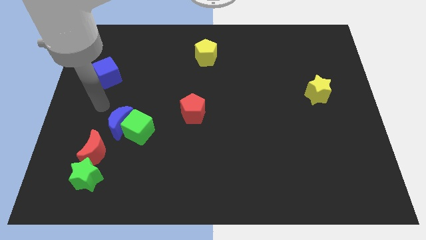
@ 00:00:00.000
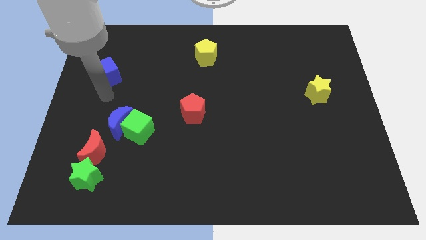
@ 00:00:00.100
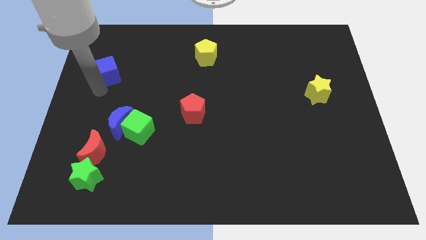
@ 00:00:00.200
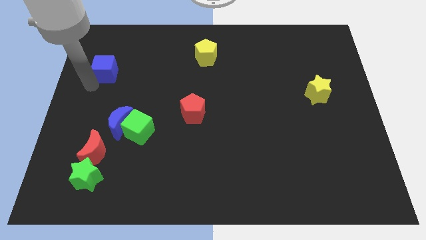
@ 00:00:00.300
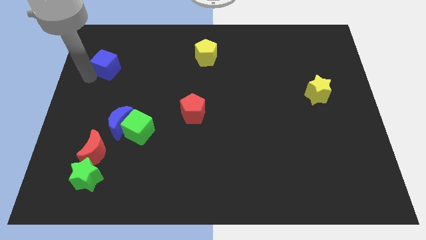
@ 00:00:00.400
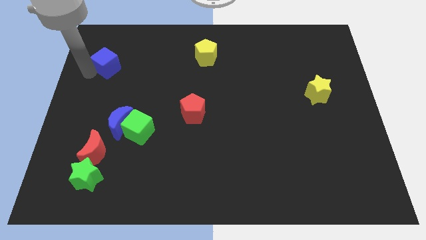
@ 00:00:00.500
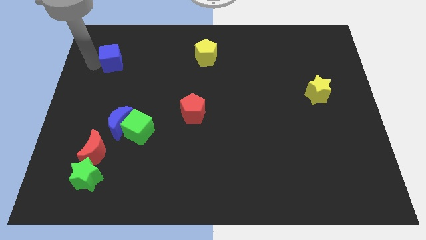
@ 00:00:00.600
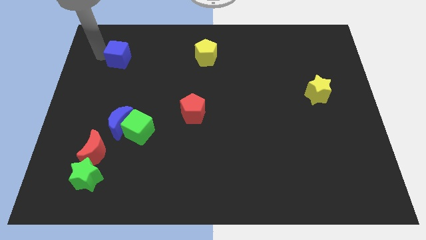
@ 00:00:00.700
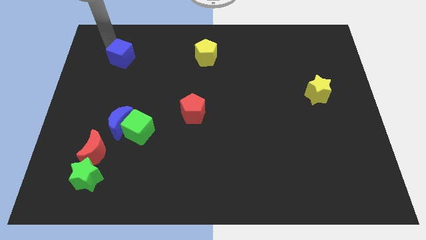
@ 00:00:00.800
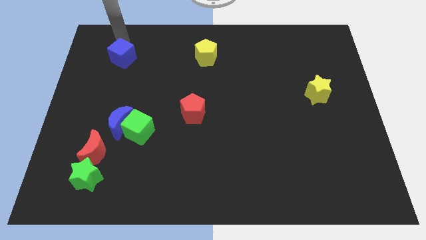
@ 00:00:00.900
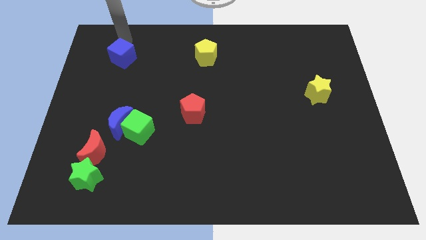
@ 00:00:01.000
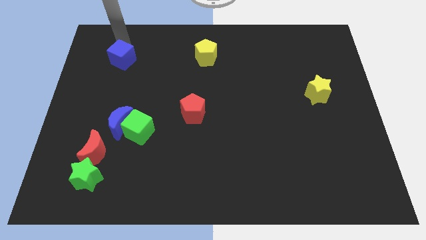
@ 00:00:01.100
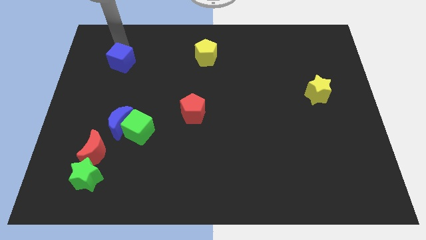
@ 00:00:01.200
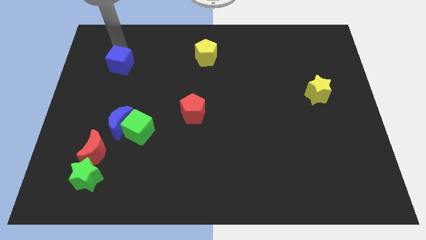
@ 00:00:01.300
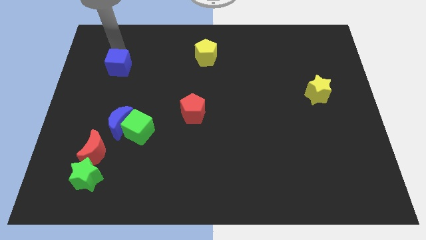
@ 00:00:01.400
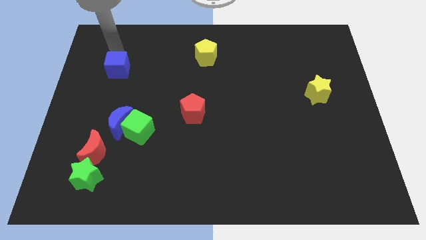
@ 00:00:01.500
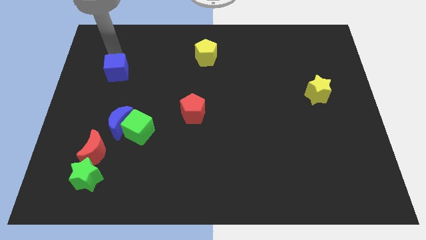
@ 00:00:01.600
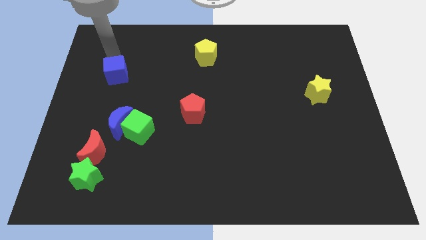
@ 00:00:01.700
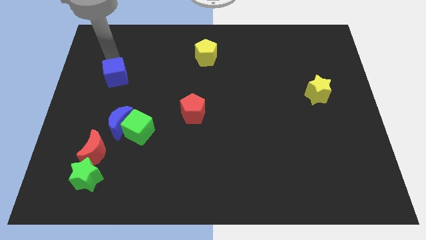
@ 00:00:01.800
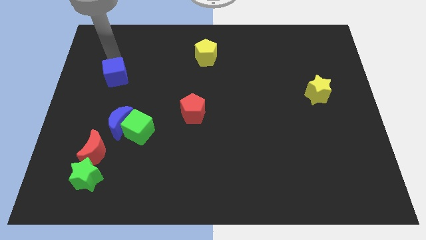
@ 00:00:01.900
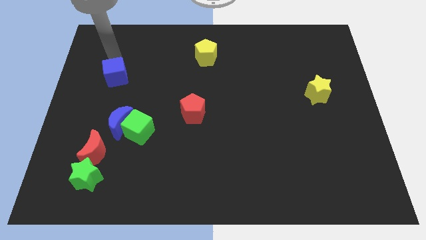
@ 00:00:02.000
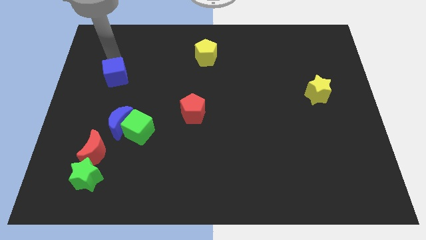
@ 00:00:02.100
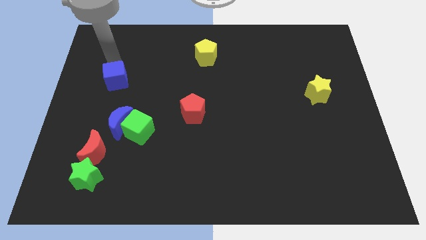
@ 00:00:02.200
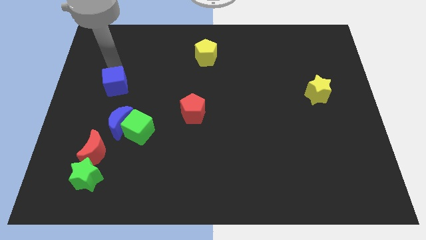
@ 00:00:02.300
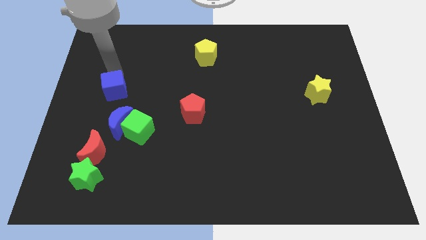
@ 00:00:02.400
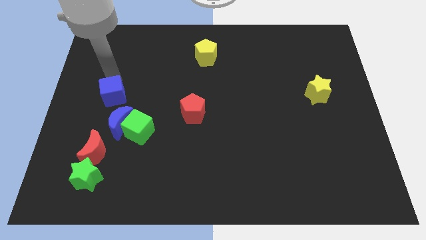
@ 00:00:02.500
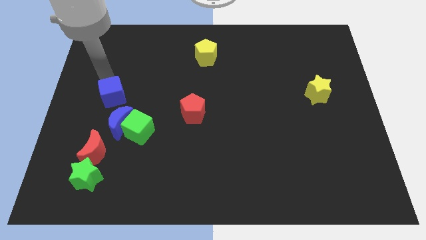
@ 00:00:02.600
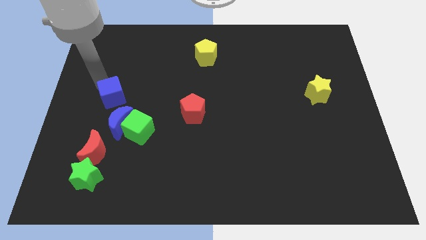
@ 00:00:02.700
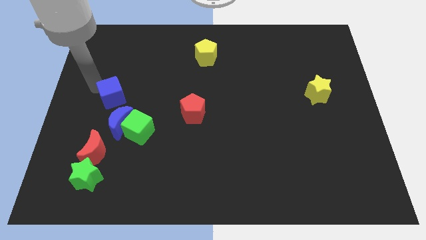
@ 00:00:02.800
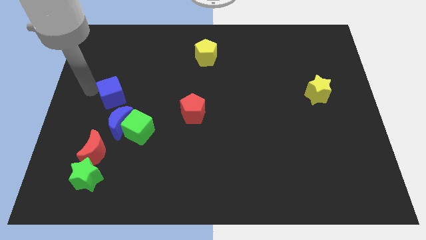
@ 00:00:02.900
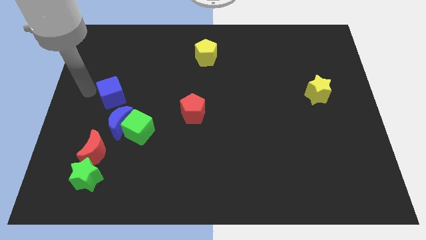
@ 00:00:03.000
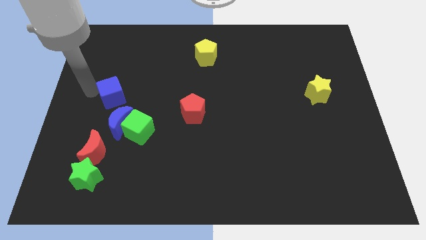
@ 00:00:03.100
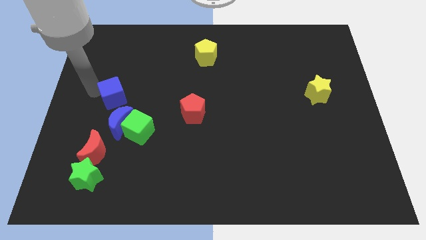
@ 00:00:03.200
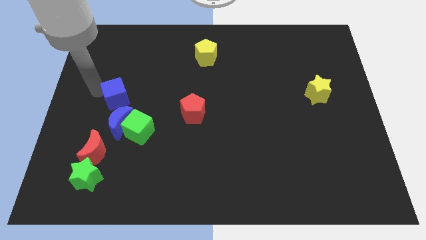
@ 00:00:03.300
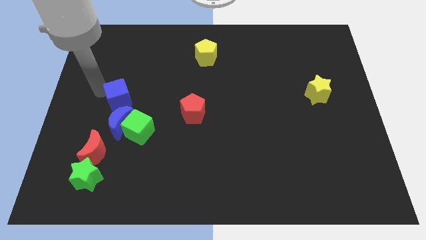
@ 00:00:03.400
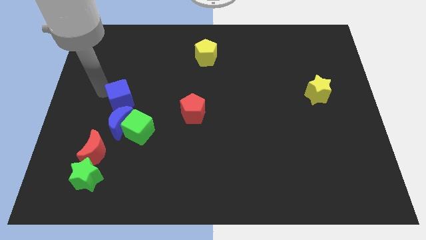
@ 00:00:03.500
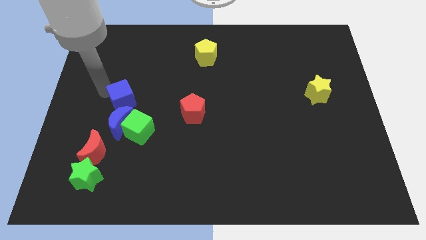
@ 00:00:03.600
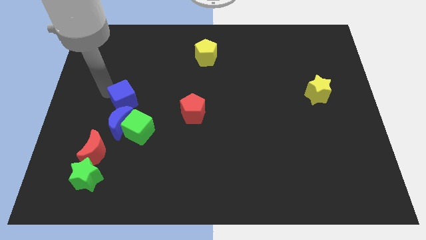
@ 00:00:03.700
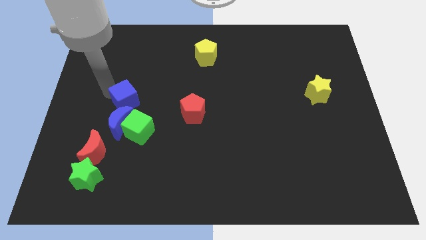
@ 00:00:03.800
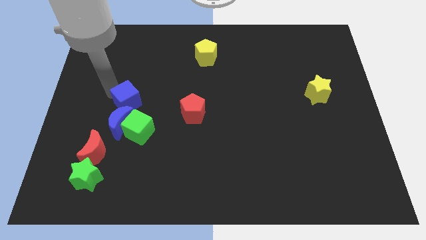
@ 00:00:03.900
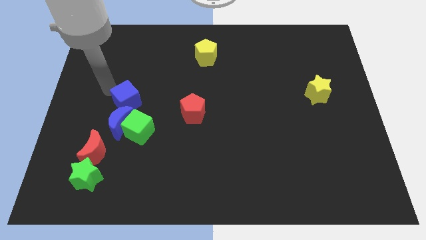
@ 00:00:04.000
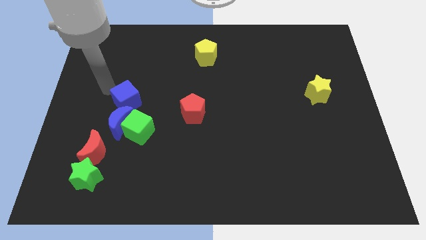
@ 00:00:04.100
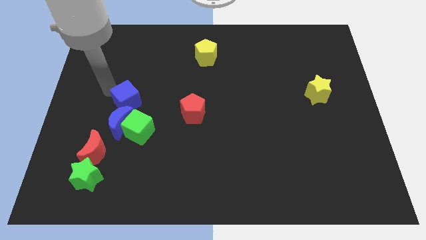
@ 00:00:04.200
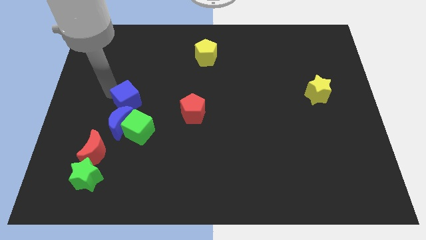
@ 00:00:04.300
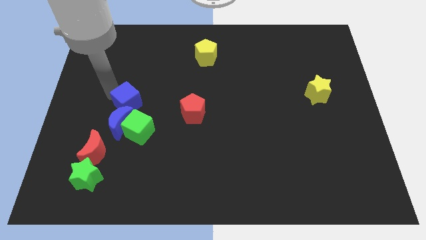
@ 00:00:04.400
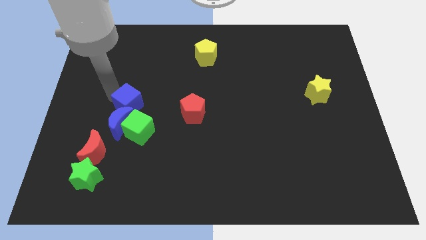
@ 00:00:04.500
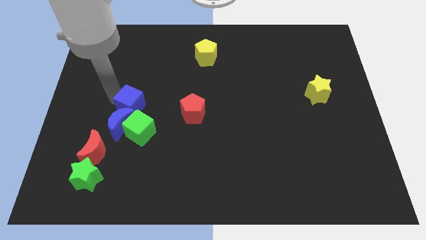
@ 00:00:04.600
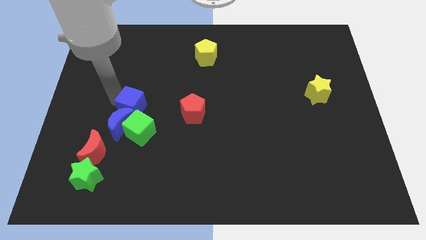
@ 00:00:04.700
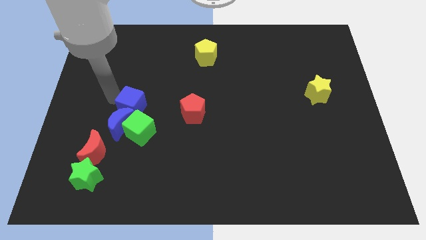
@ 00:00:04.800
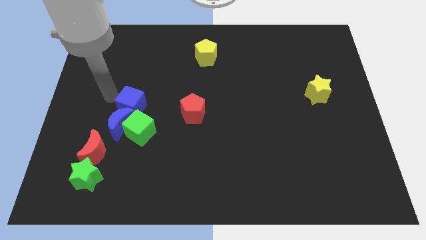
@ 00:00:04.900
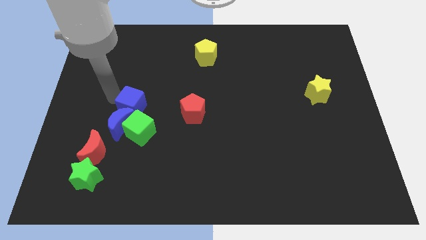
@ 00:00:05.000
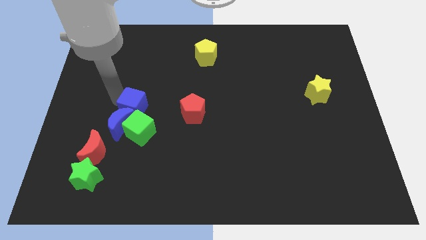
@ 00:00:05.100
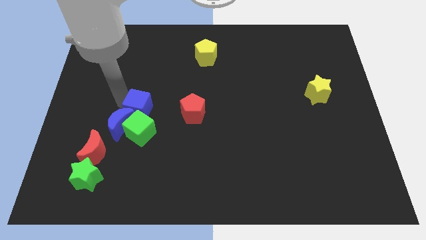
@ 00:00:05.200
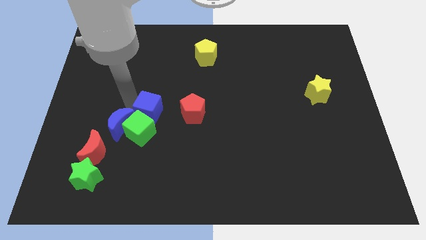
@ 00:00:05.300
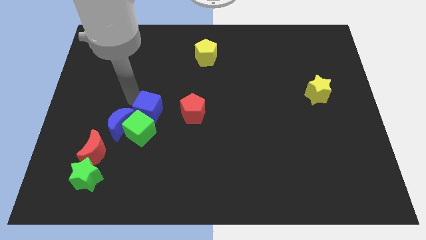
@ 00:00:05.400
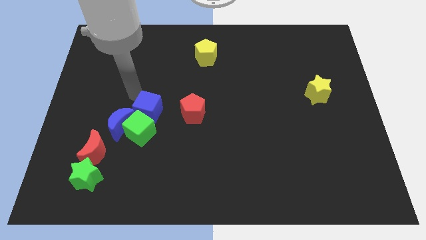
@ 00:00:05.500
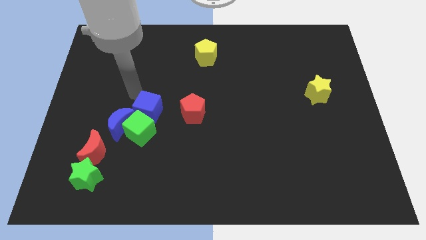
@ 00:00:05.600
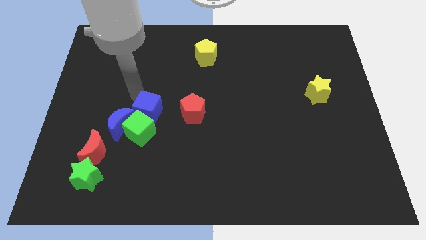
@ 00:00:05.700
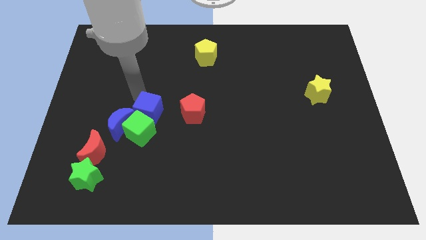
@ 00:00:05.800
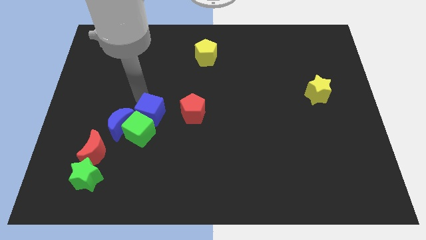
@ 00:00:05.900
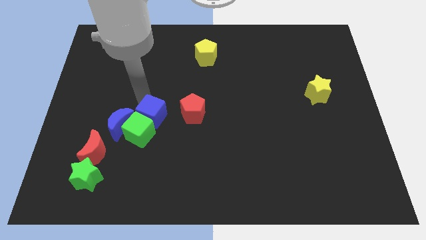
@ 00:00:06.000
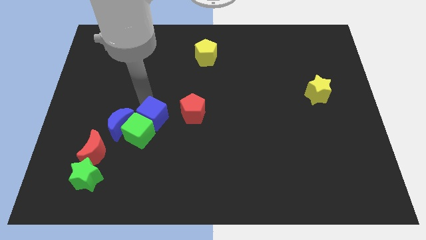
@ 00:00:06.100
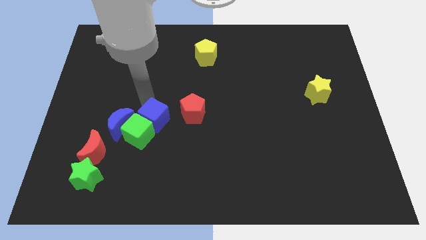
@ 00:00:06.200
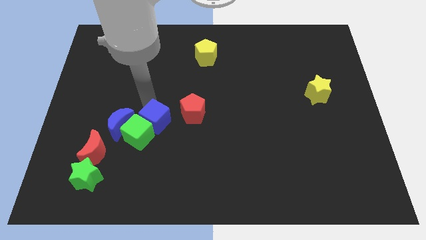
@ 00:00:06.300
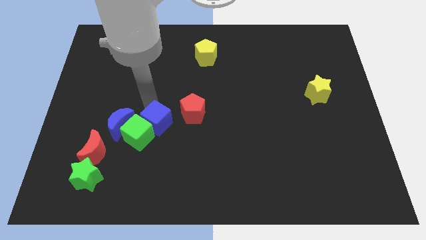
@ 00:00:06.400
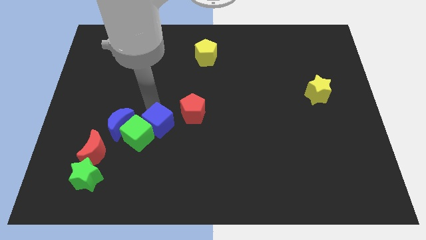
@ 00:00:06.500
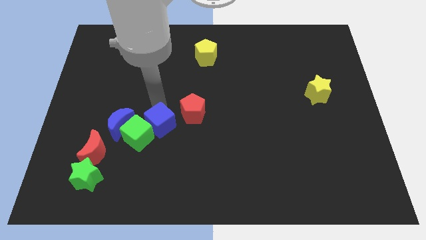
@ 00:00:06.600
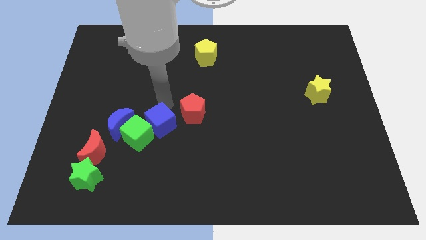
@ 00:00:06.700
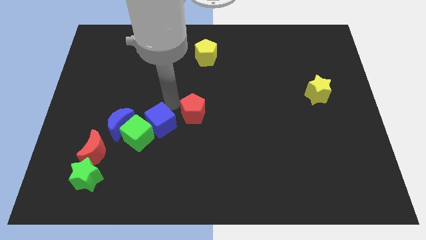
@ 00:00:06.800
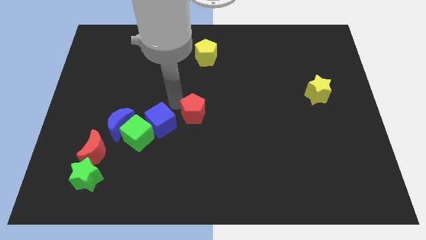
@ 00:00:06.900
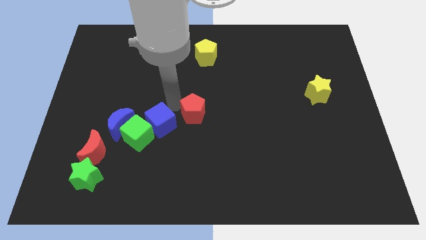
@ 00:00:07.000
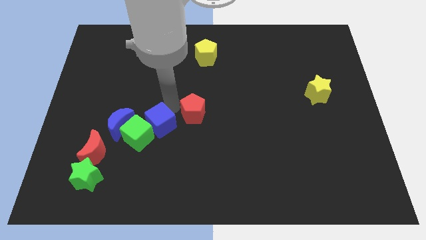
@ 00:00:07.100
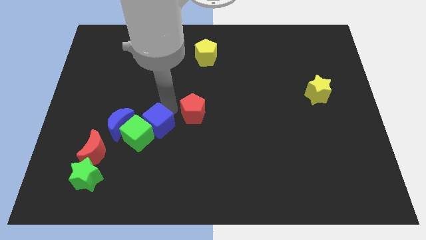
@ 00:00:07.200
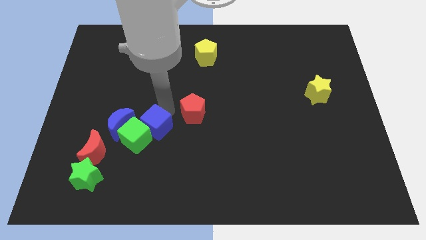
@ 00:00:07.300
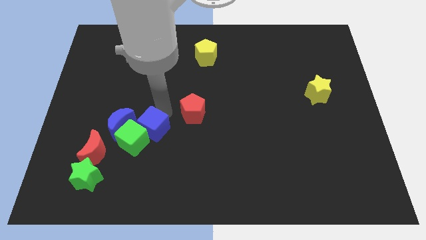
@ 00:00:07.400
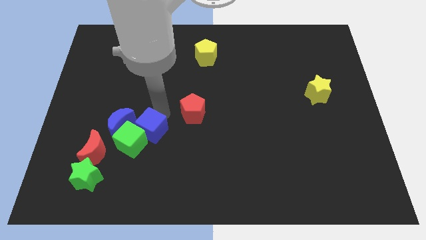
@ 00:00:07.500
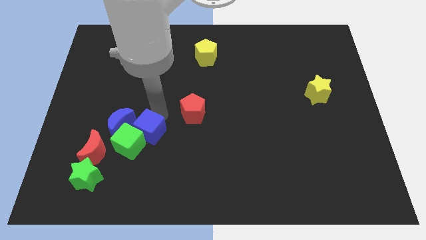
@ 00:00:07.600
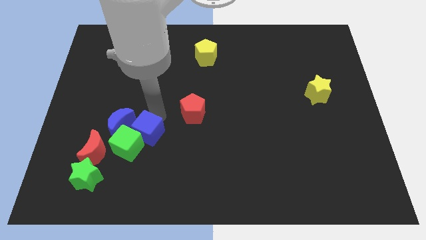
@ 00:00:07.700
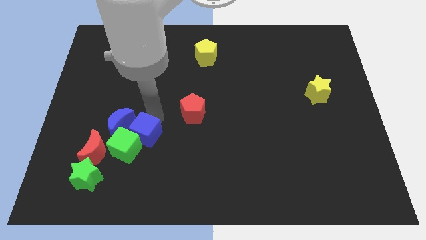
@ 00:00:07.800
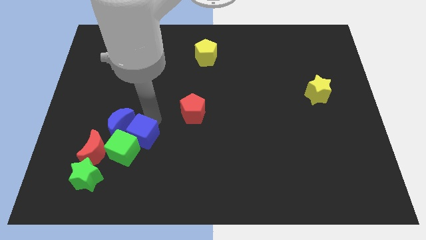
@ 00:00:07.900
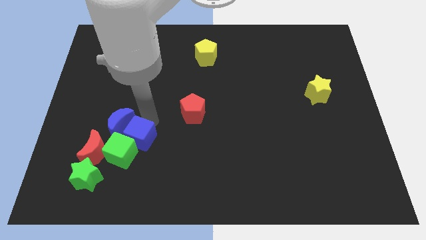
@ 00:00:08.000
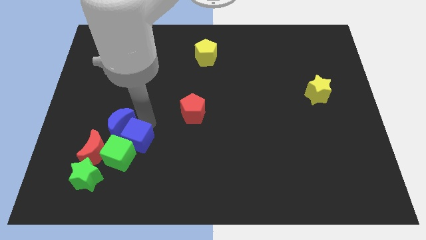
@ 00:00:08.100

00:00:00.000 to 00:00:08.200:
slide the blue cube below the blue moon
